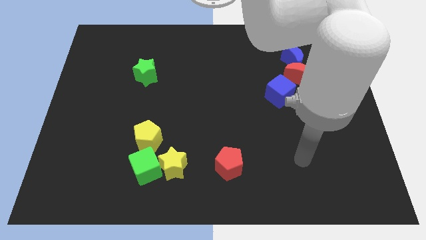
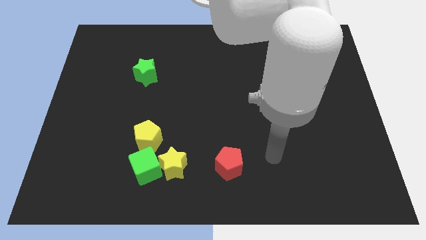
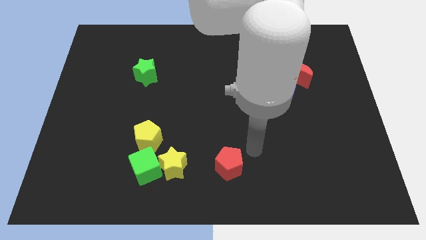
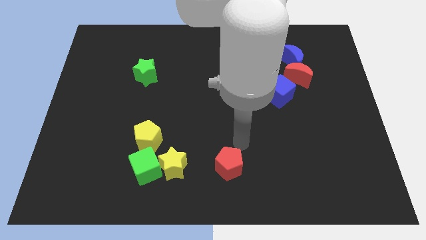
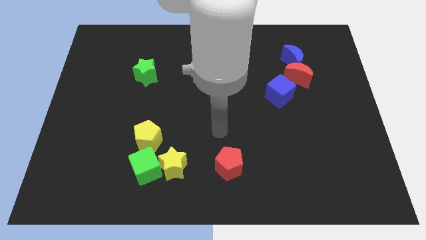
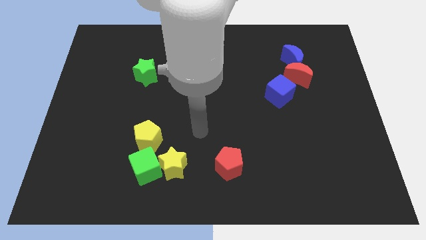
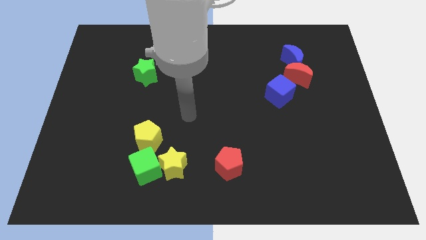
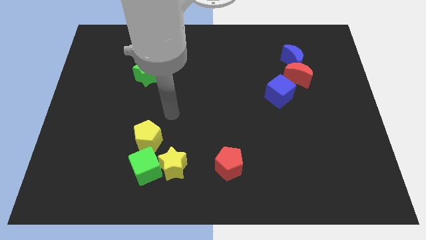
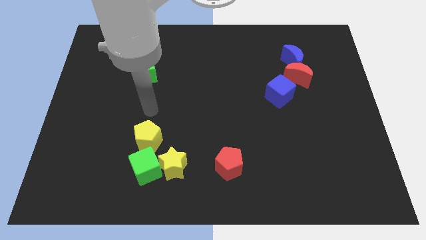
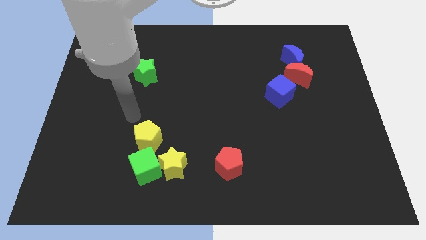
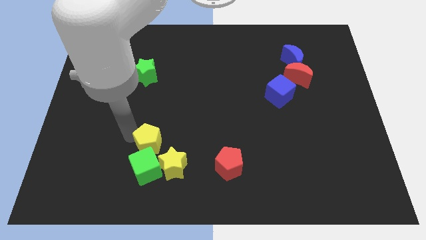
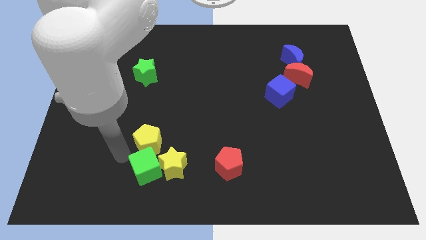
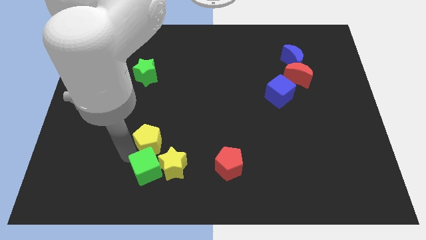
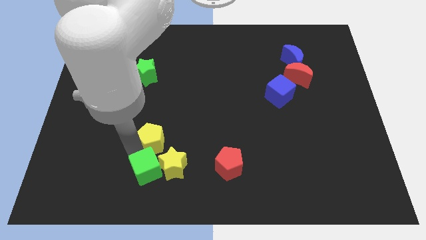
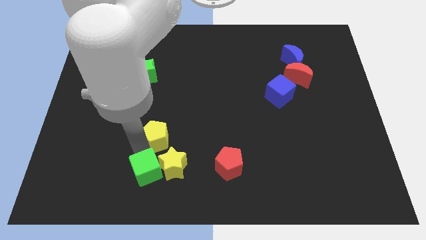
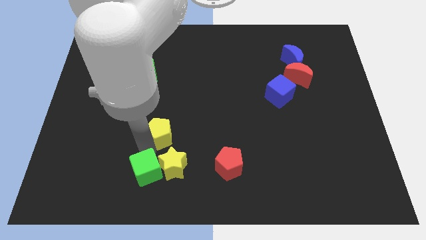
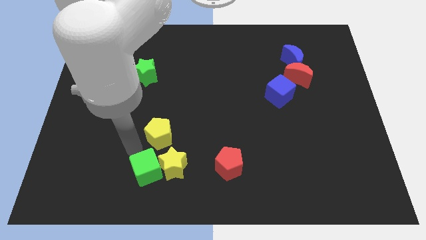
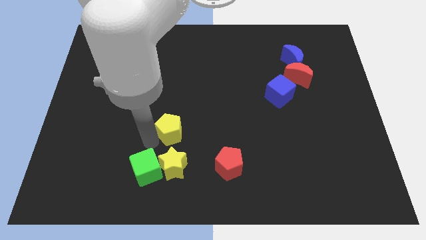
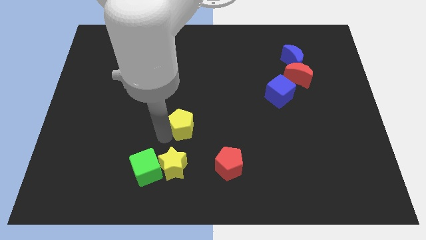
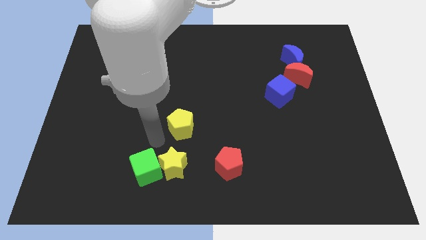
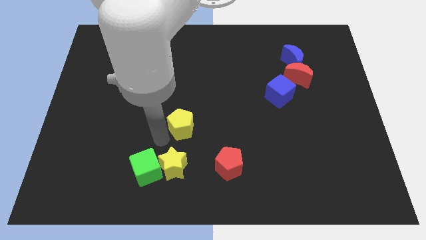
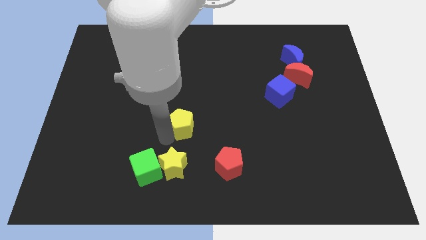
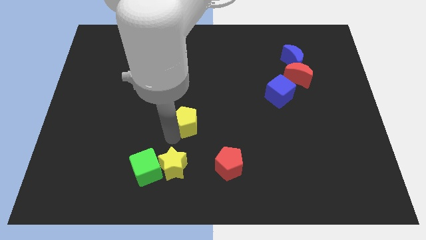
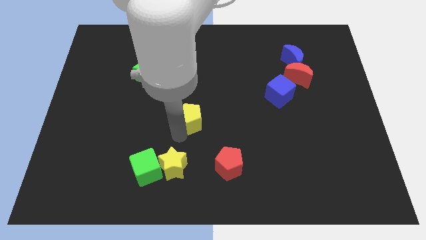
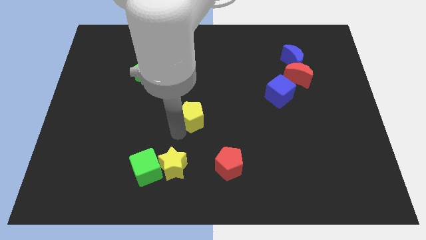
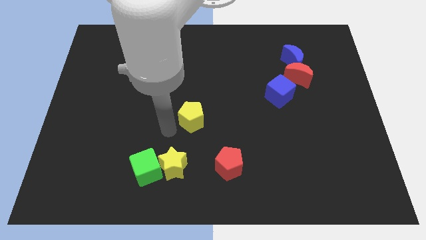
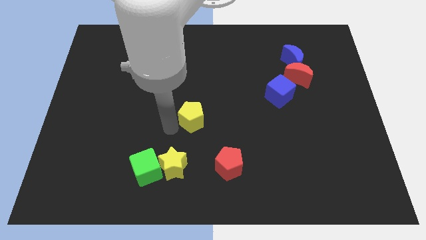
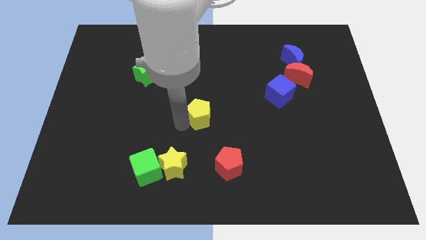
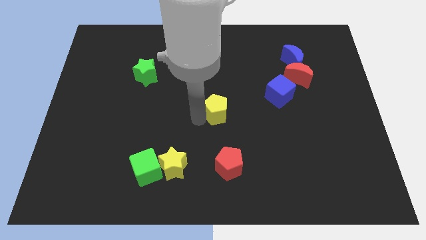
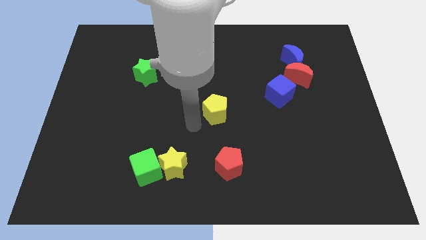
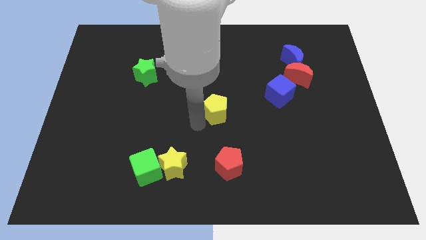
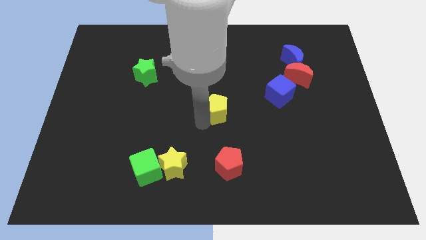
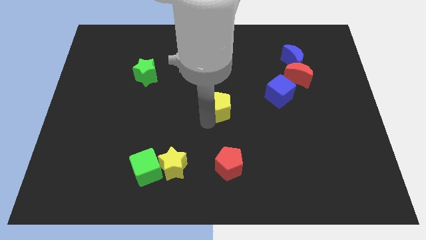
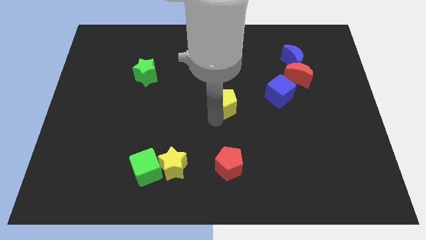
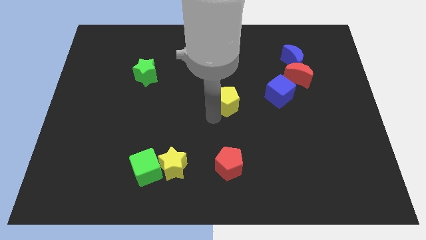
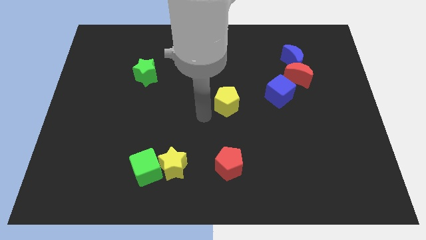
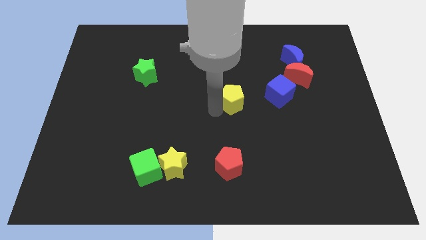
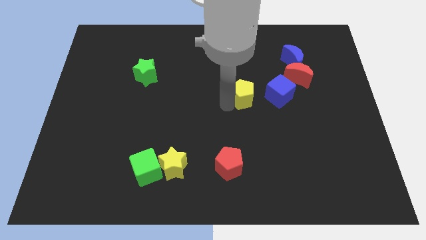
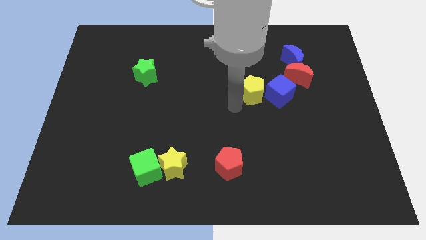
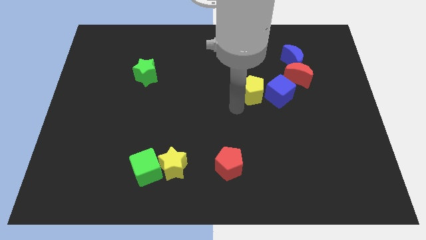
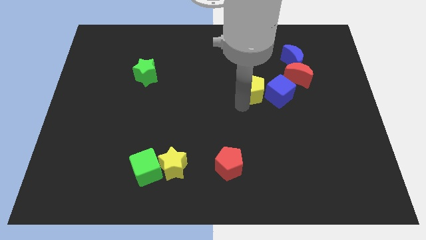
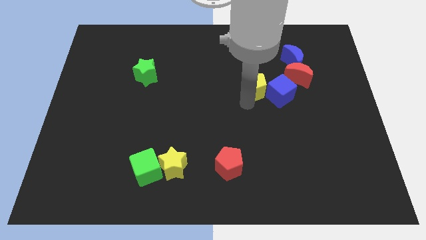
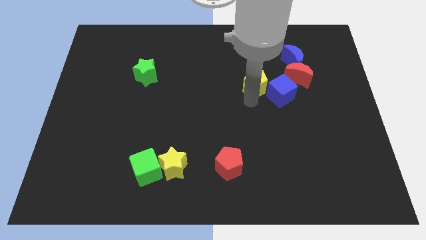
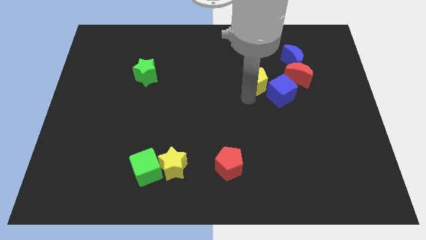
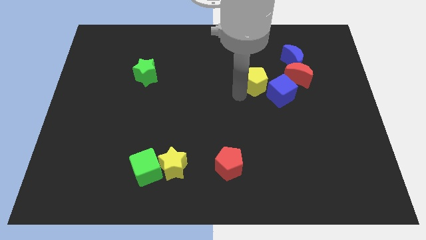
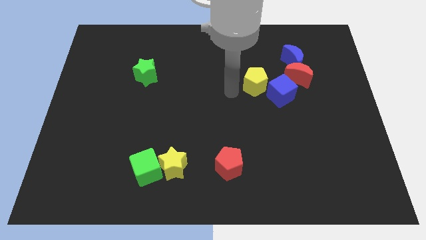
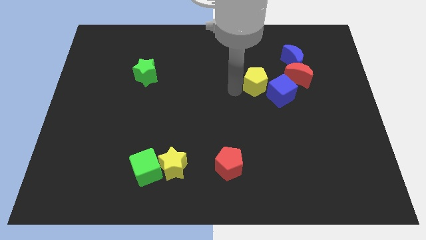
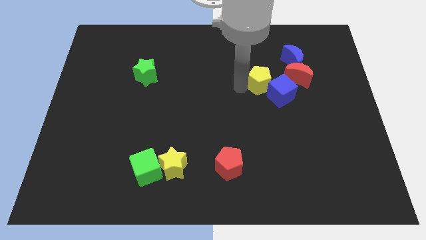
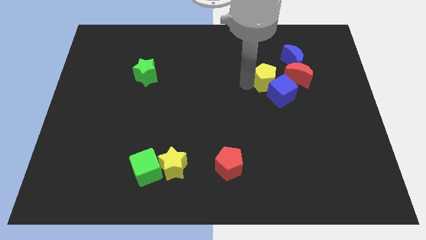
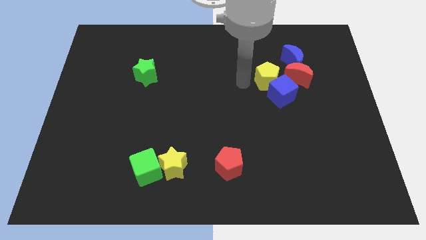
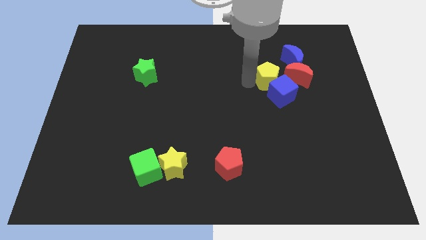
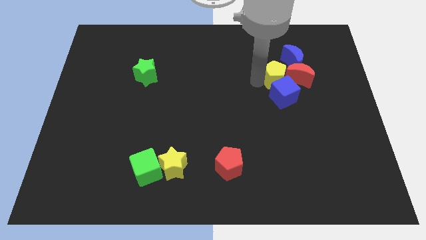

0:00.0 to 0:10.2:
put the yellow pentagon next to the red moon

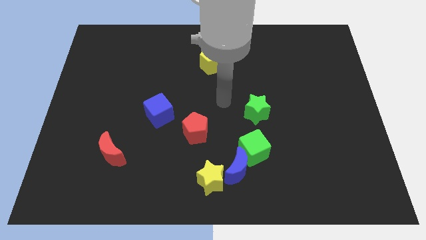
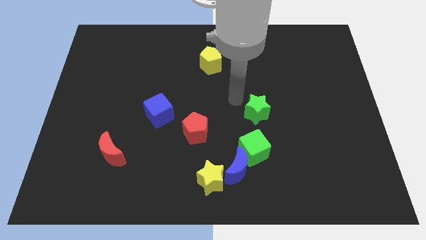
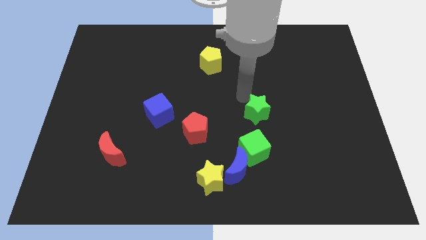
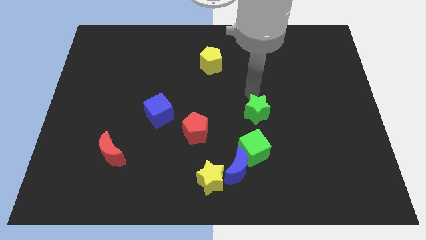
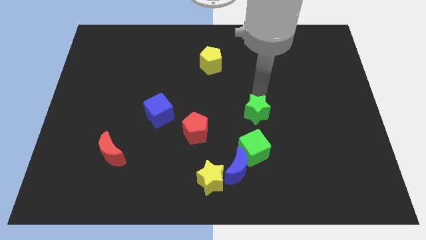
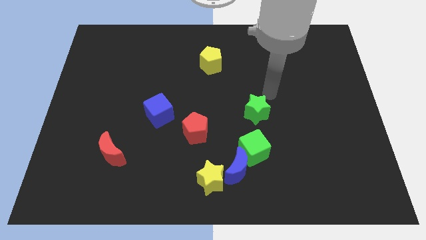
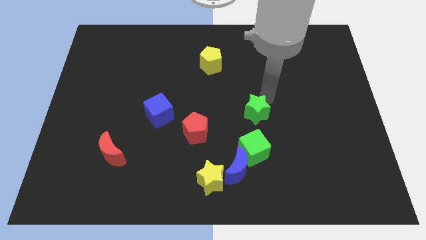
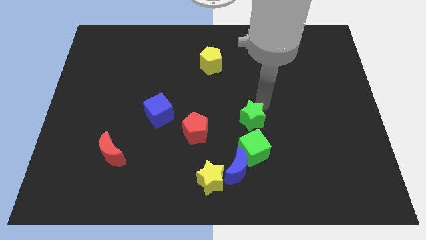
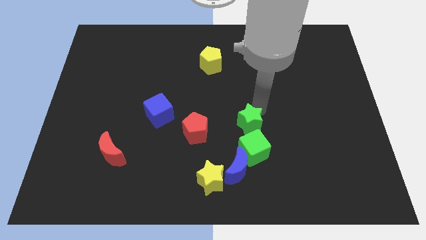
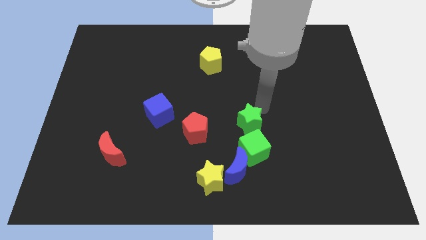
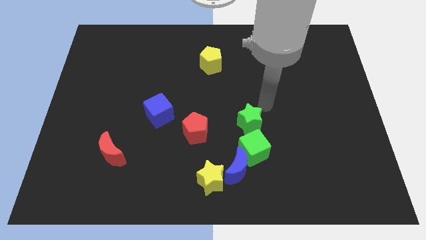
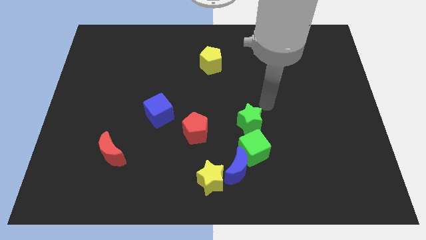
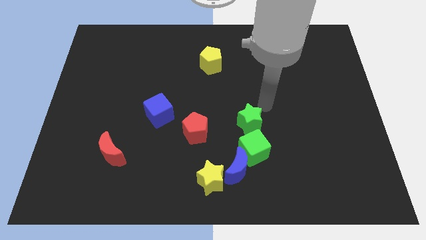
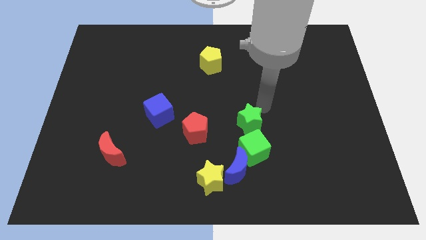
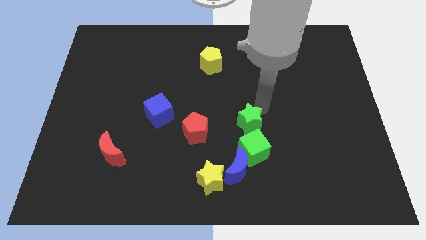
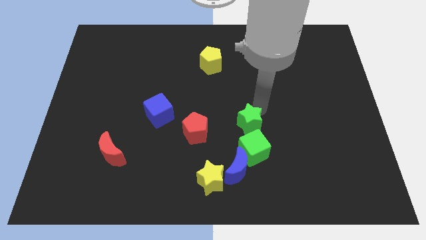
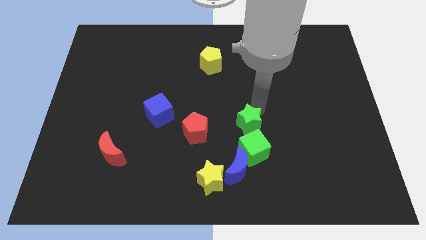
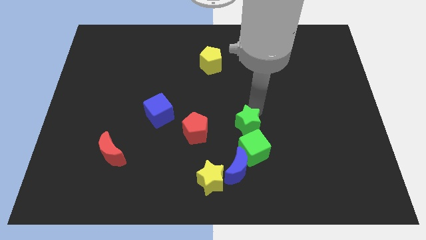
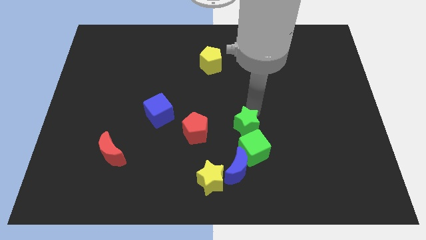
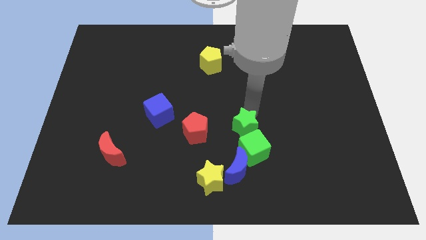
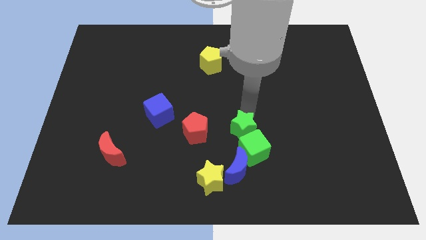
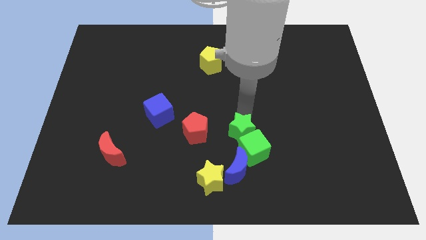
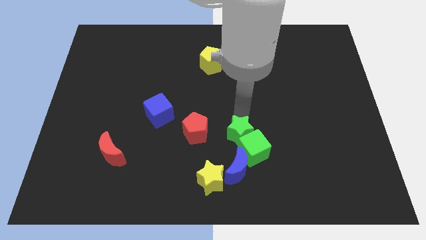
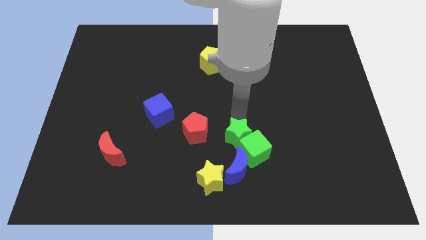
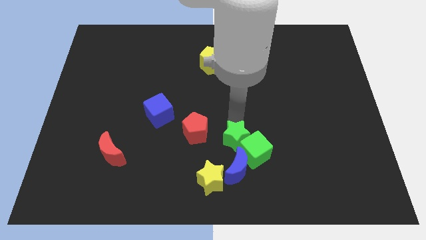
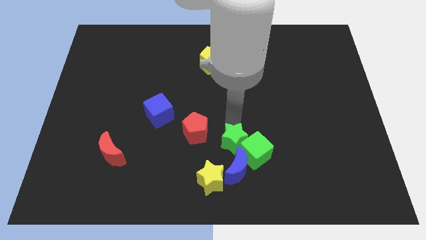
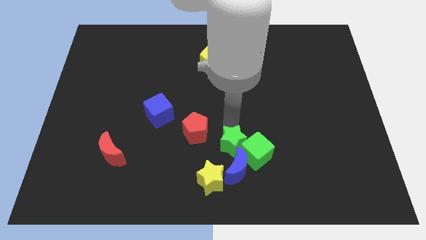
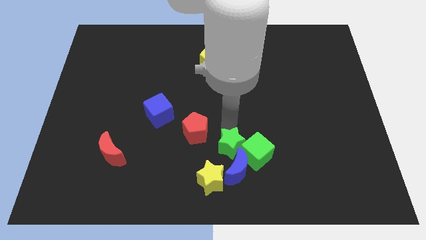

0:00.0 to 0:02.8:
slide the green star towards the blue moon
